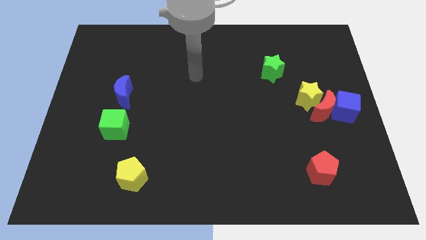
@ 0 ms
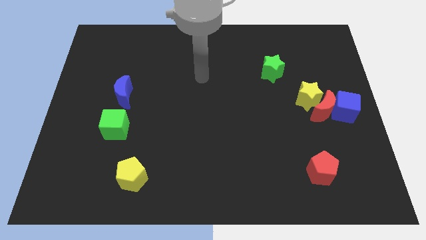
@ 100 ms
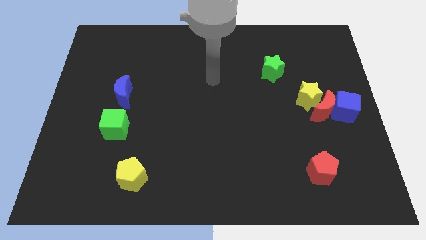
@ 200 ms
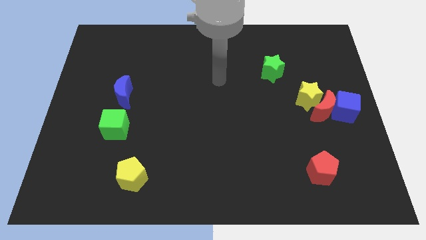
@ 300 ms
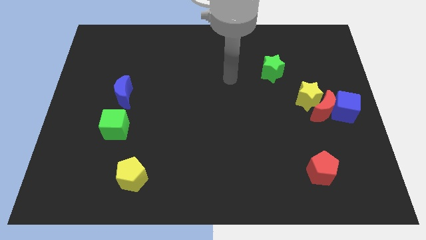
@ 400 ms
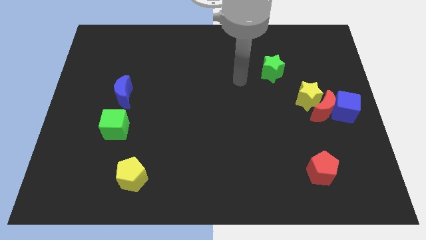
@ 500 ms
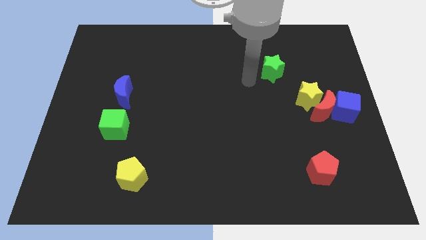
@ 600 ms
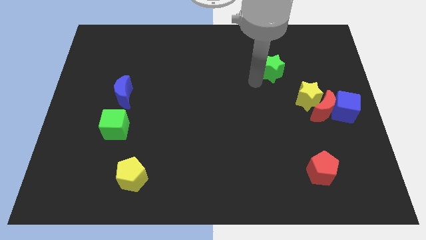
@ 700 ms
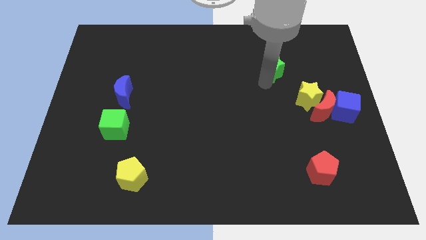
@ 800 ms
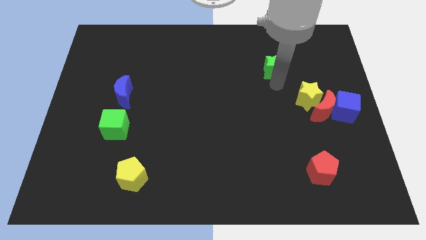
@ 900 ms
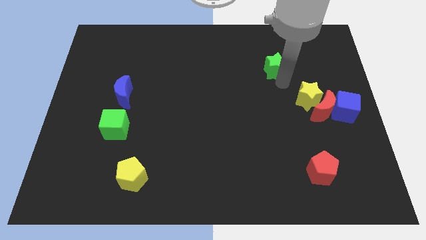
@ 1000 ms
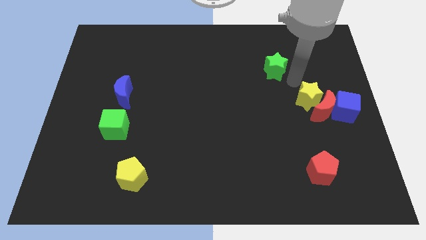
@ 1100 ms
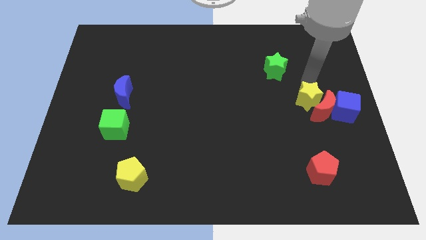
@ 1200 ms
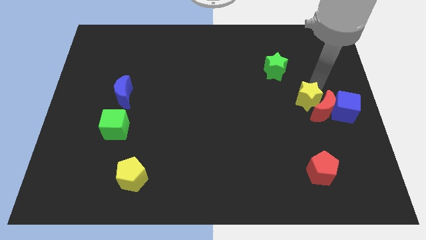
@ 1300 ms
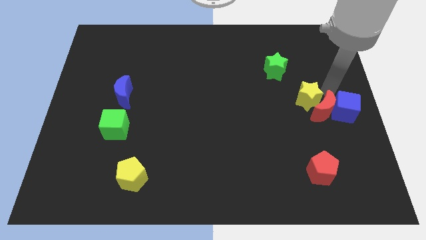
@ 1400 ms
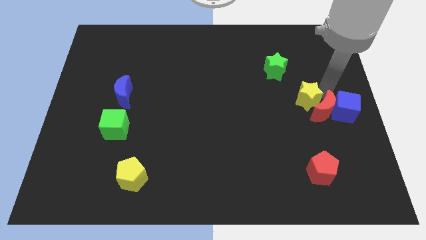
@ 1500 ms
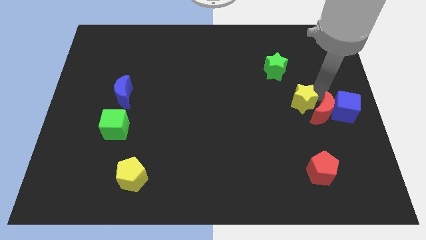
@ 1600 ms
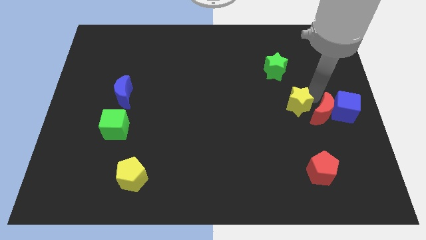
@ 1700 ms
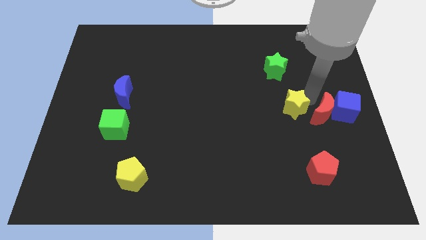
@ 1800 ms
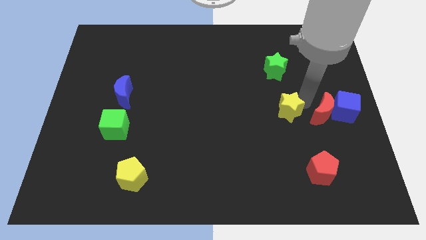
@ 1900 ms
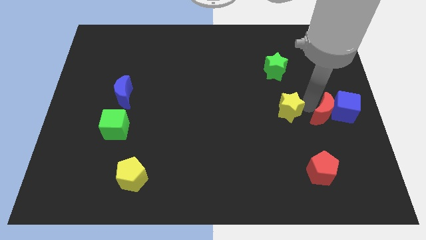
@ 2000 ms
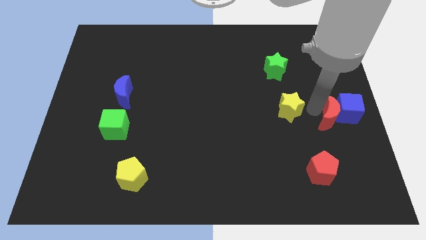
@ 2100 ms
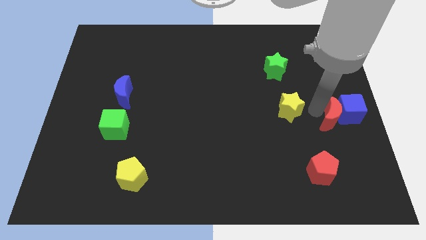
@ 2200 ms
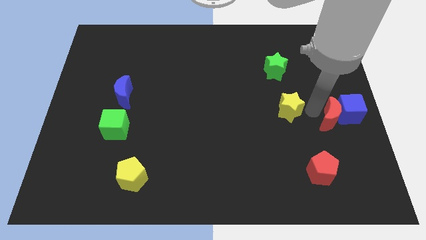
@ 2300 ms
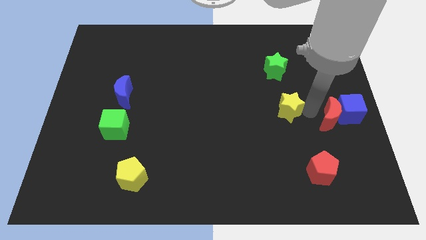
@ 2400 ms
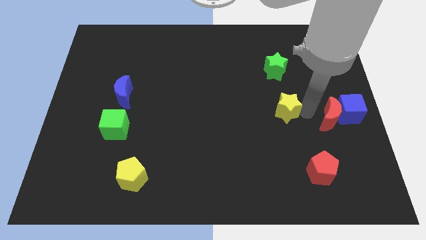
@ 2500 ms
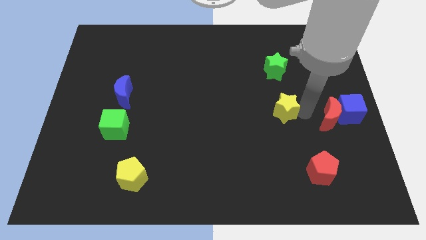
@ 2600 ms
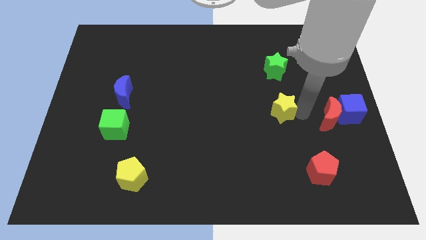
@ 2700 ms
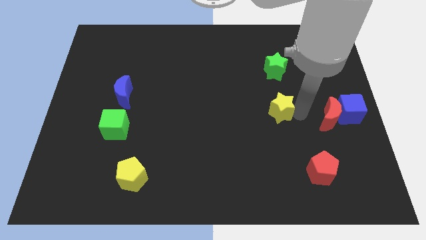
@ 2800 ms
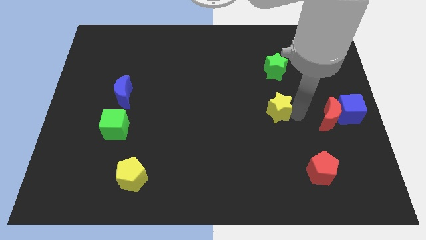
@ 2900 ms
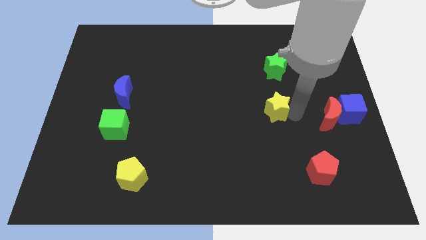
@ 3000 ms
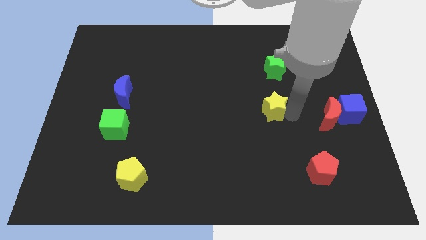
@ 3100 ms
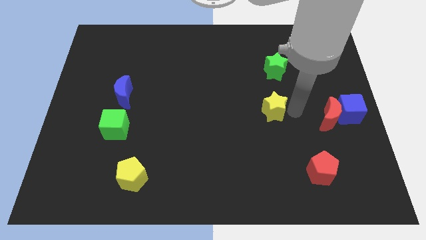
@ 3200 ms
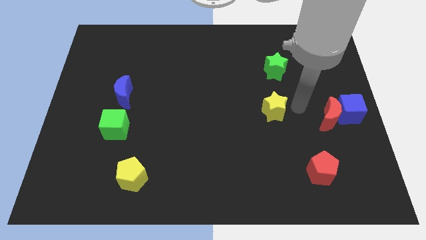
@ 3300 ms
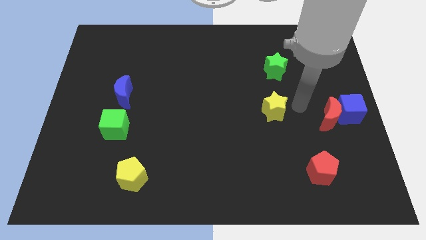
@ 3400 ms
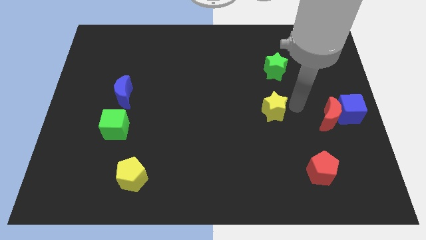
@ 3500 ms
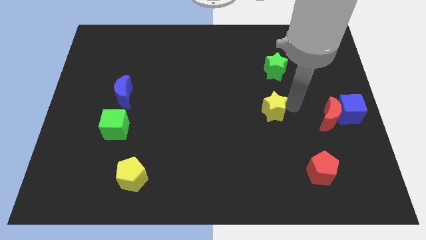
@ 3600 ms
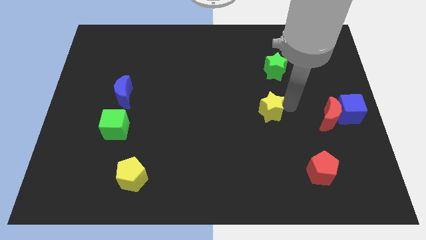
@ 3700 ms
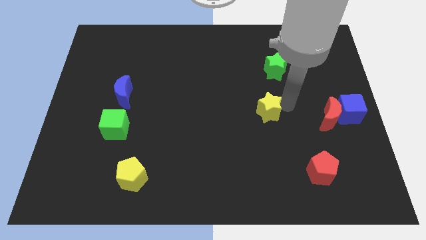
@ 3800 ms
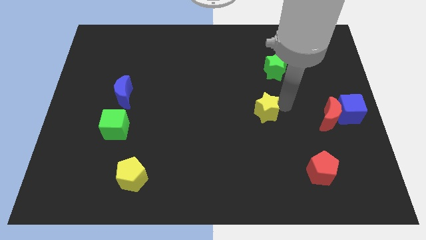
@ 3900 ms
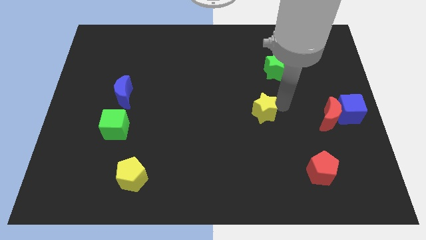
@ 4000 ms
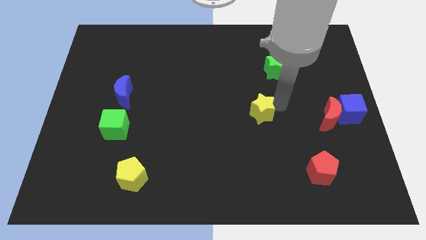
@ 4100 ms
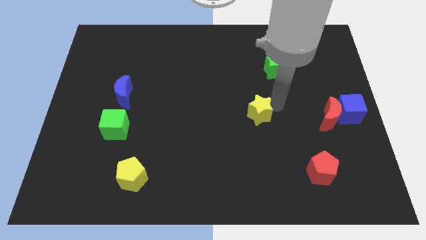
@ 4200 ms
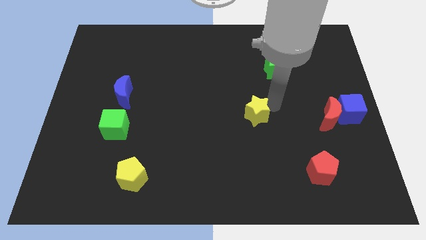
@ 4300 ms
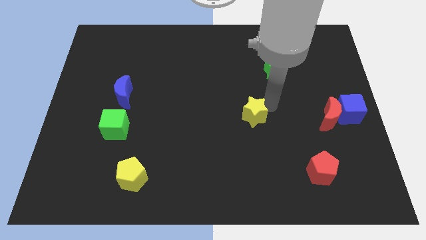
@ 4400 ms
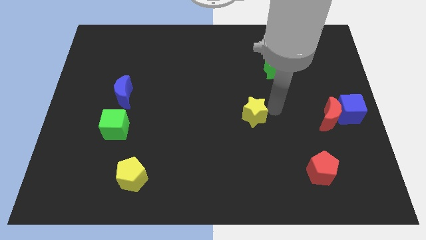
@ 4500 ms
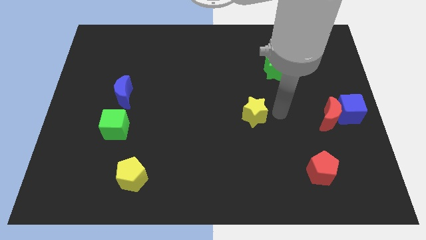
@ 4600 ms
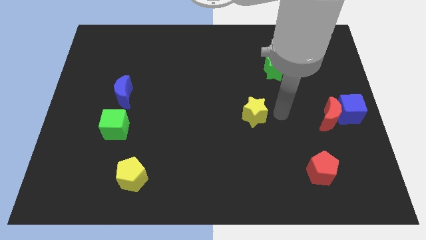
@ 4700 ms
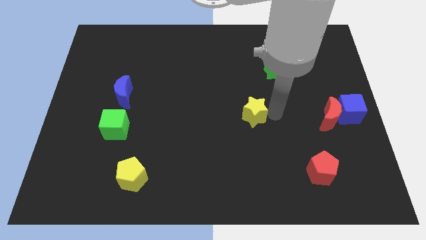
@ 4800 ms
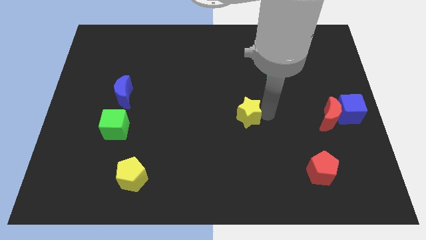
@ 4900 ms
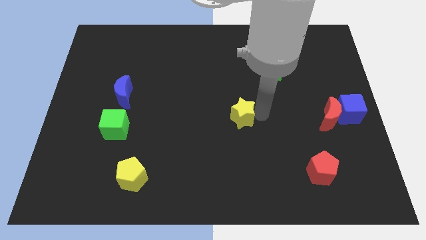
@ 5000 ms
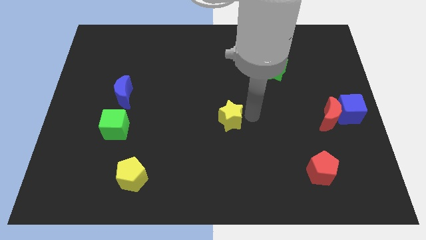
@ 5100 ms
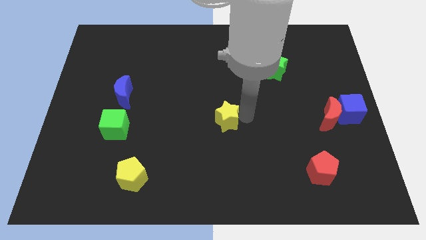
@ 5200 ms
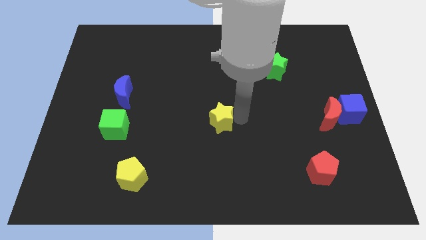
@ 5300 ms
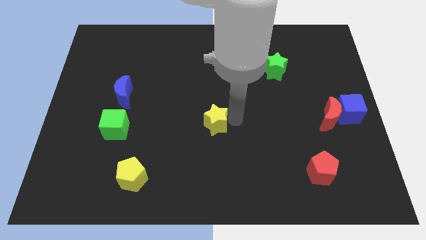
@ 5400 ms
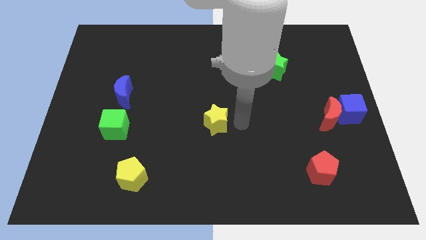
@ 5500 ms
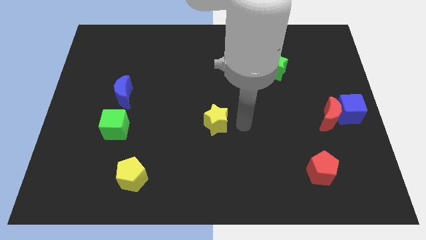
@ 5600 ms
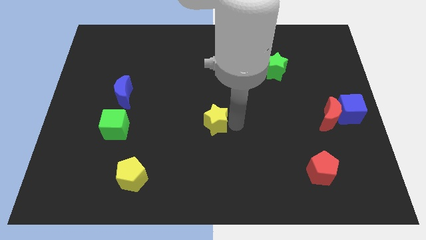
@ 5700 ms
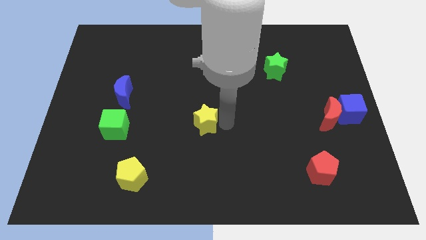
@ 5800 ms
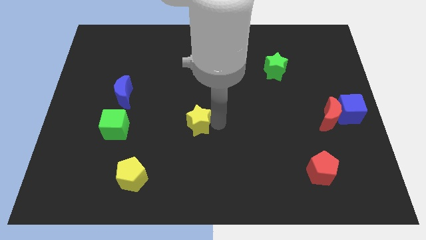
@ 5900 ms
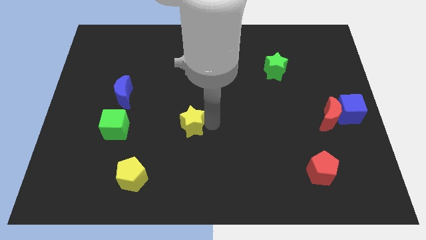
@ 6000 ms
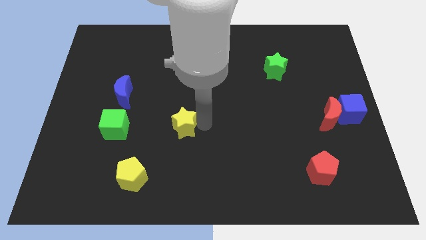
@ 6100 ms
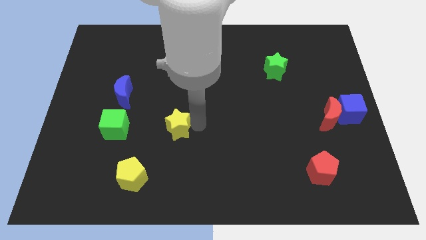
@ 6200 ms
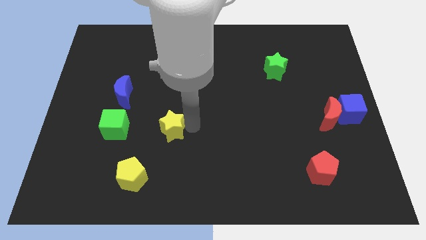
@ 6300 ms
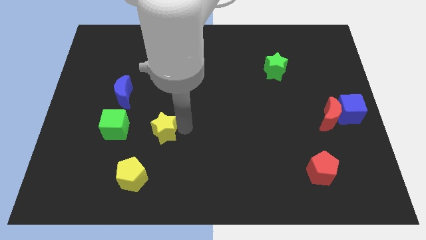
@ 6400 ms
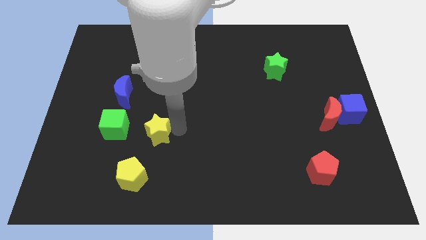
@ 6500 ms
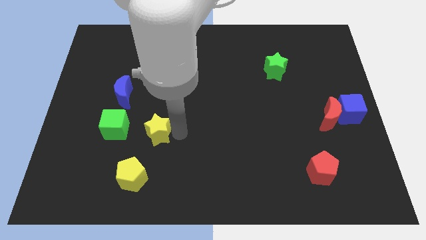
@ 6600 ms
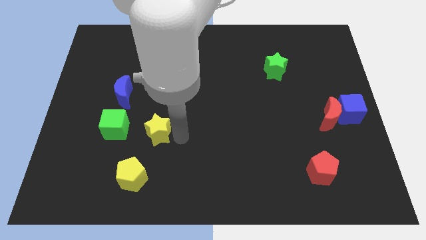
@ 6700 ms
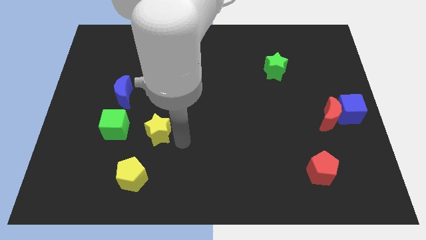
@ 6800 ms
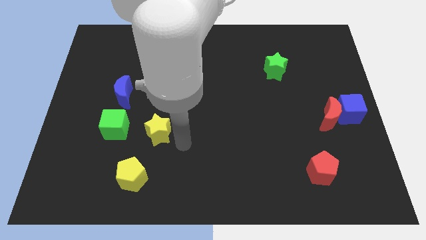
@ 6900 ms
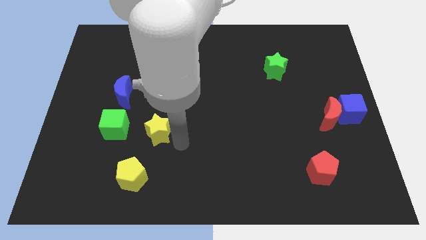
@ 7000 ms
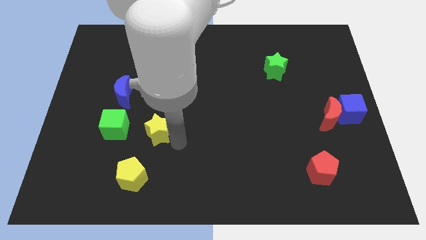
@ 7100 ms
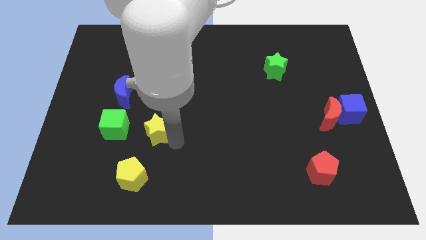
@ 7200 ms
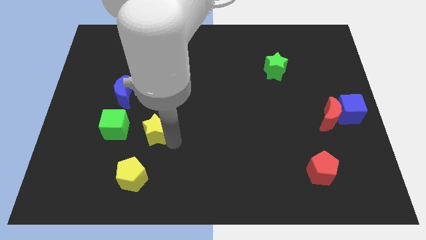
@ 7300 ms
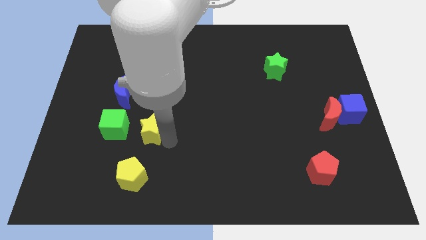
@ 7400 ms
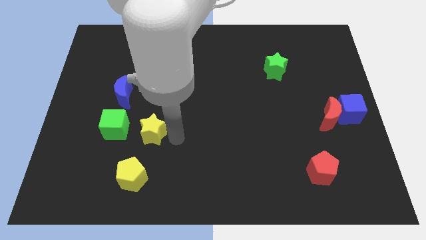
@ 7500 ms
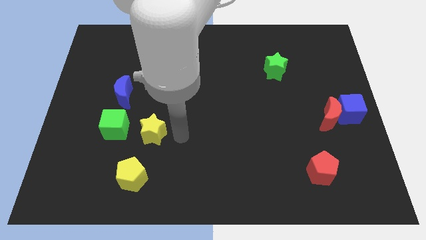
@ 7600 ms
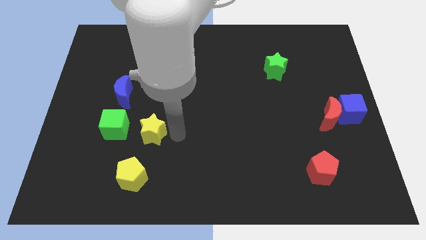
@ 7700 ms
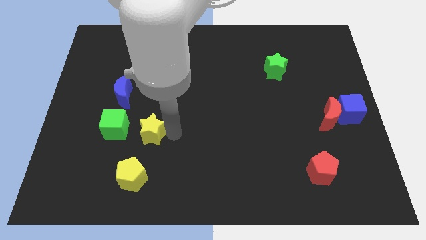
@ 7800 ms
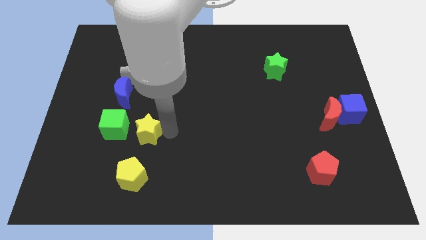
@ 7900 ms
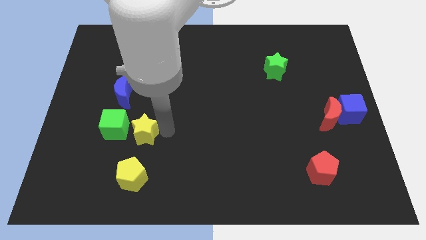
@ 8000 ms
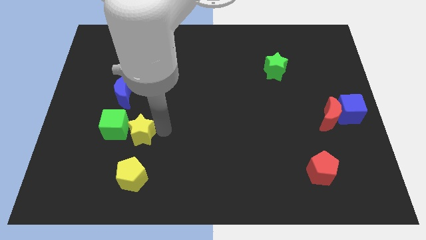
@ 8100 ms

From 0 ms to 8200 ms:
move the yellow star next to the green cube
